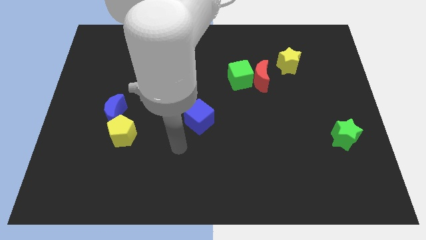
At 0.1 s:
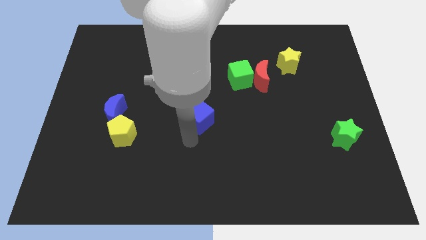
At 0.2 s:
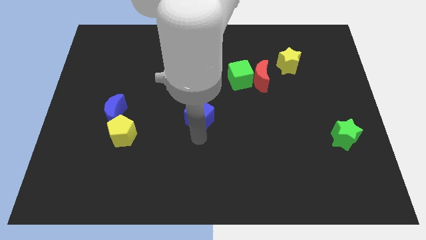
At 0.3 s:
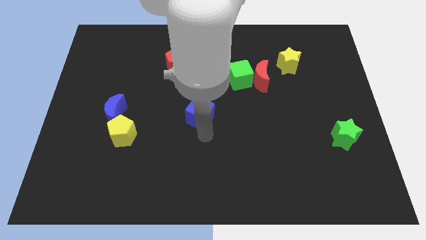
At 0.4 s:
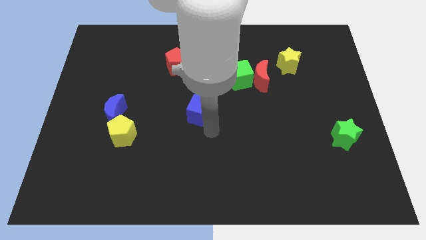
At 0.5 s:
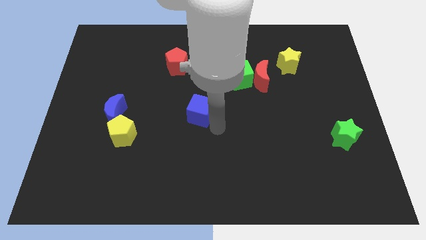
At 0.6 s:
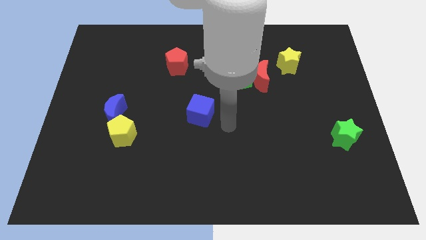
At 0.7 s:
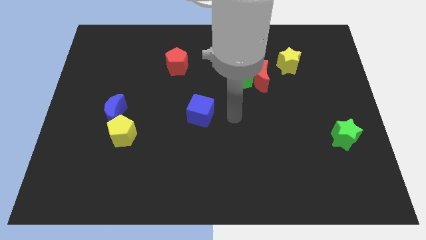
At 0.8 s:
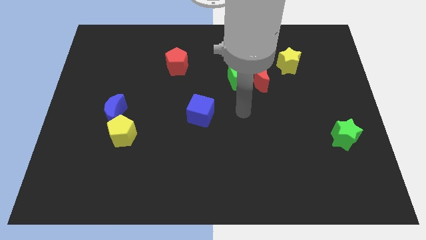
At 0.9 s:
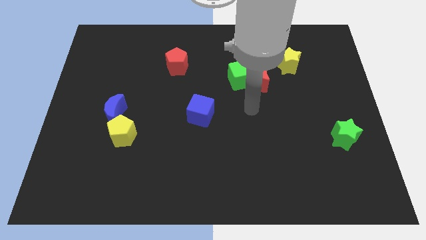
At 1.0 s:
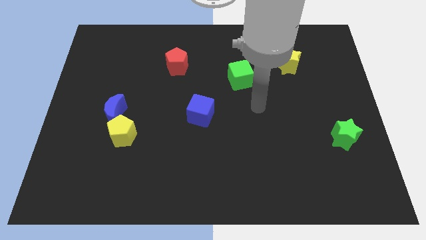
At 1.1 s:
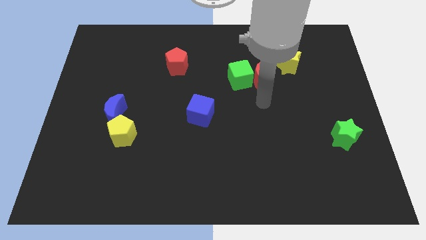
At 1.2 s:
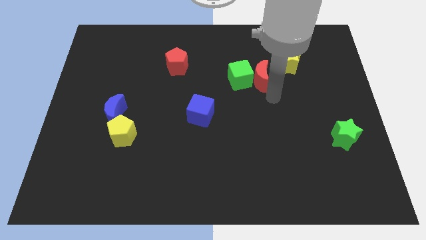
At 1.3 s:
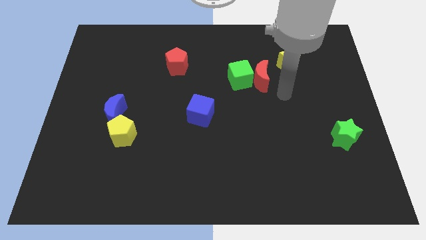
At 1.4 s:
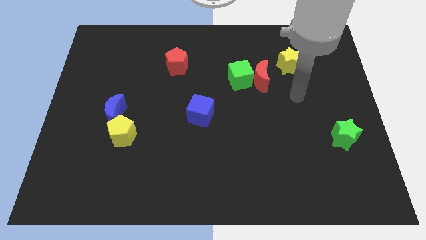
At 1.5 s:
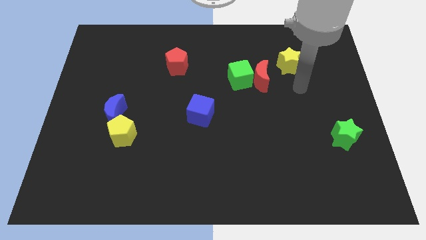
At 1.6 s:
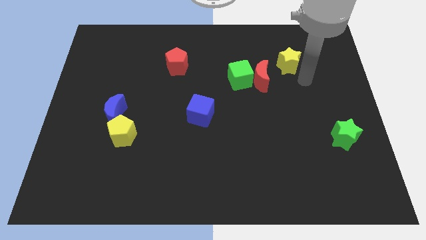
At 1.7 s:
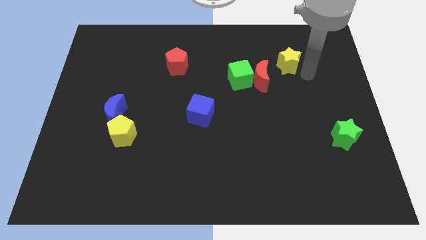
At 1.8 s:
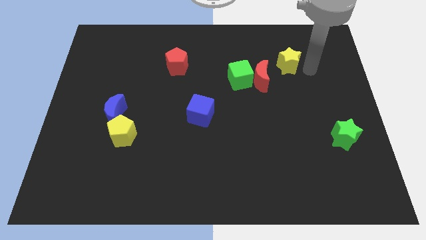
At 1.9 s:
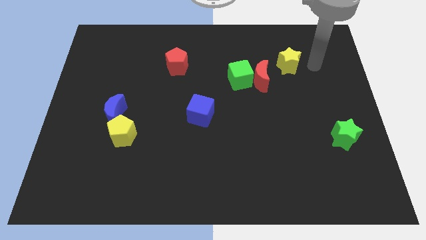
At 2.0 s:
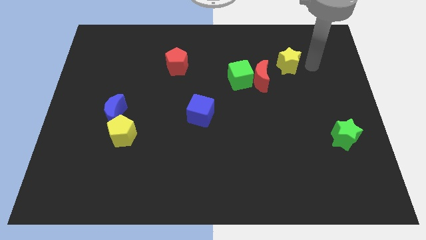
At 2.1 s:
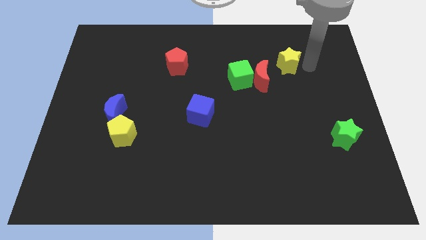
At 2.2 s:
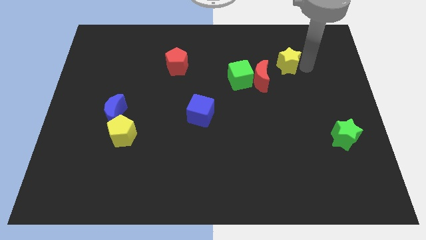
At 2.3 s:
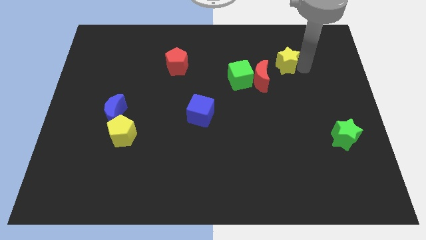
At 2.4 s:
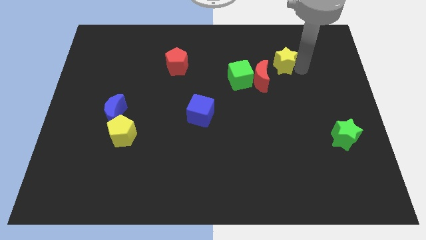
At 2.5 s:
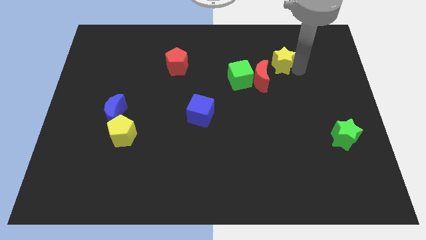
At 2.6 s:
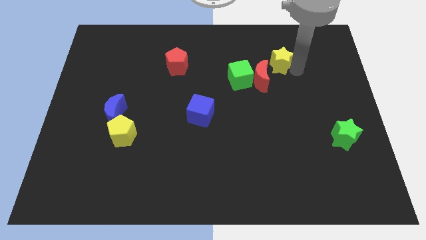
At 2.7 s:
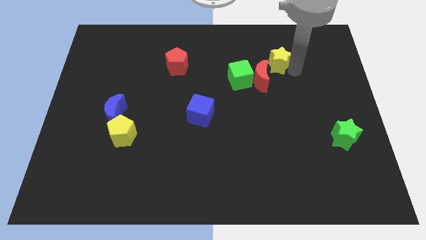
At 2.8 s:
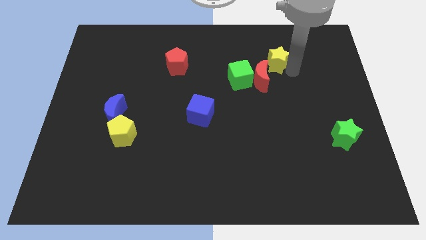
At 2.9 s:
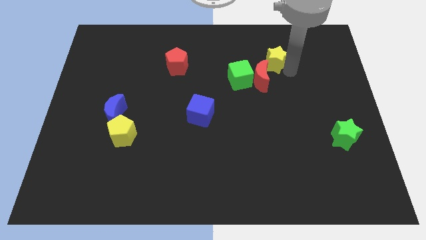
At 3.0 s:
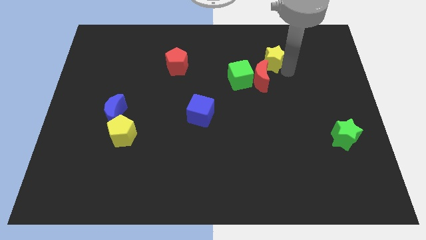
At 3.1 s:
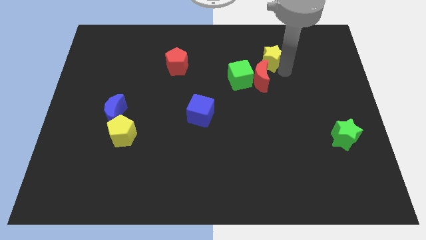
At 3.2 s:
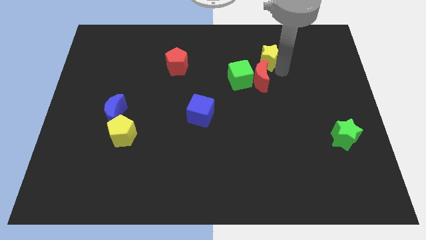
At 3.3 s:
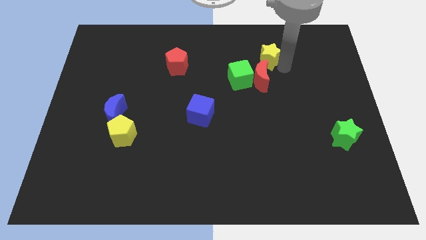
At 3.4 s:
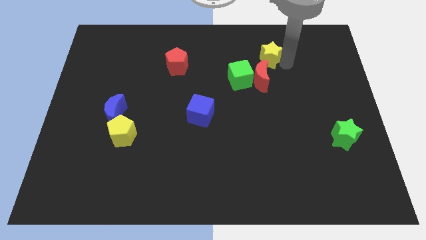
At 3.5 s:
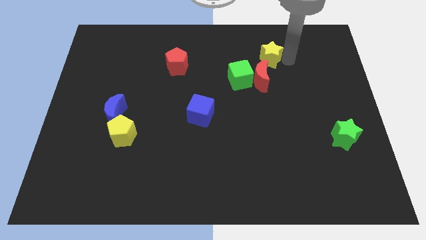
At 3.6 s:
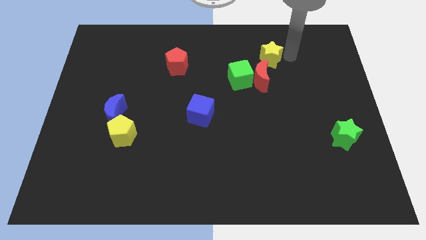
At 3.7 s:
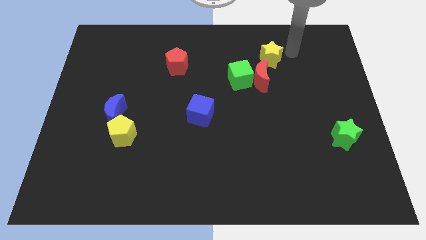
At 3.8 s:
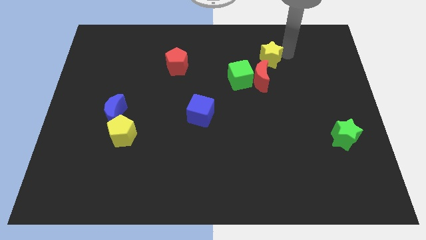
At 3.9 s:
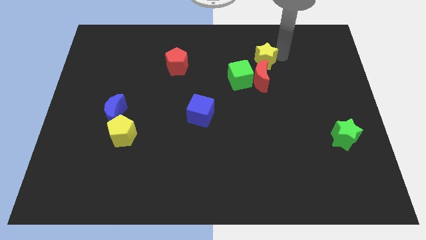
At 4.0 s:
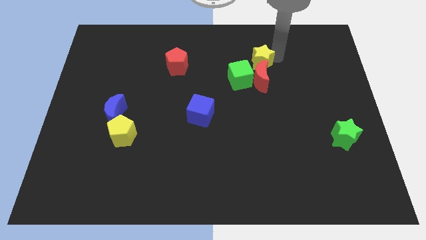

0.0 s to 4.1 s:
slightly move the yellow star left

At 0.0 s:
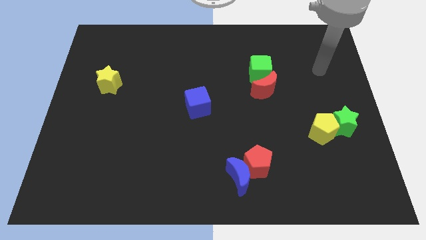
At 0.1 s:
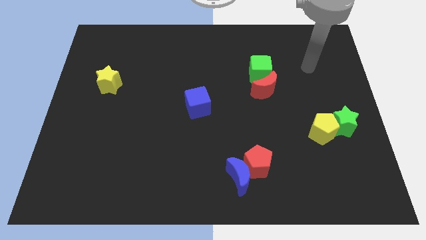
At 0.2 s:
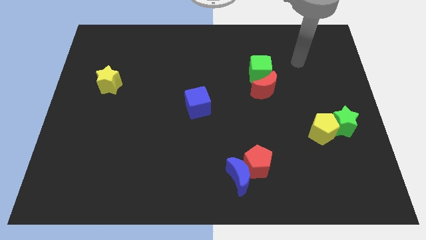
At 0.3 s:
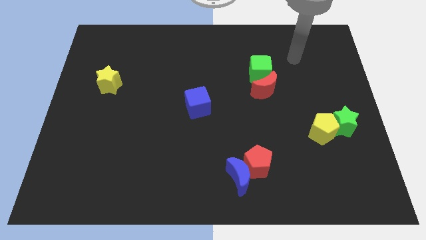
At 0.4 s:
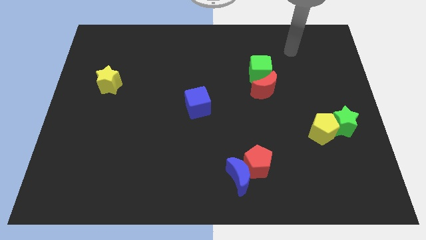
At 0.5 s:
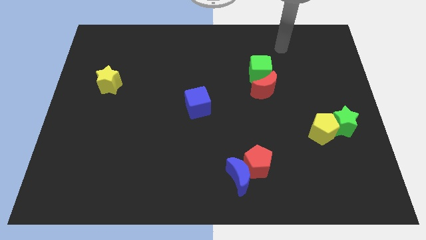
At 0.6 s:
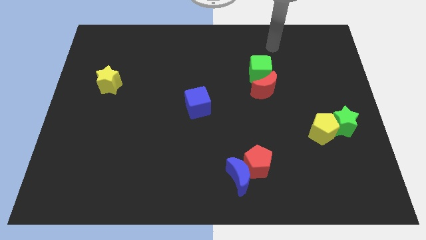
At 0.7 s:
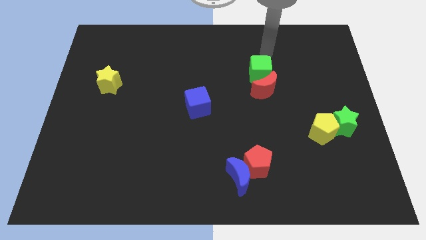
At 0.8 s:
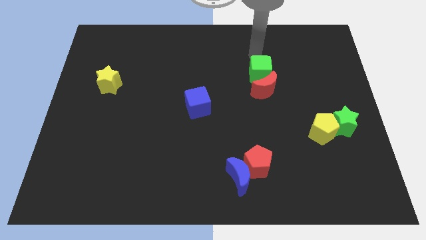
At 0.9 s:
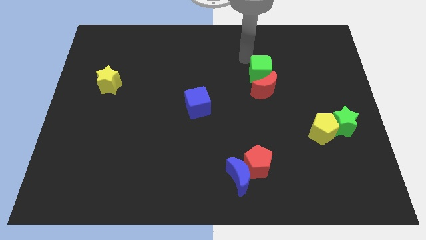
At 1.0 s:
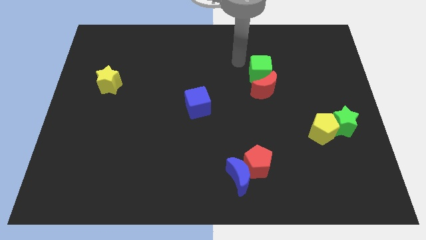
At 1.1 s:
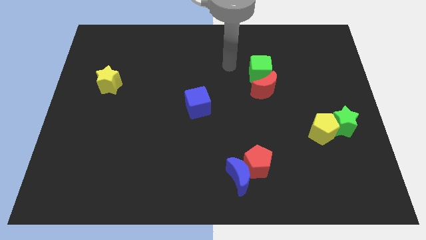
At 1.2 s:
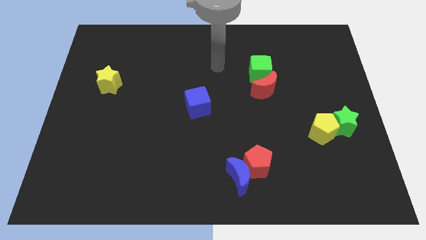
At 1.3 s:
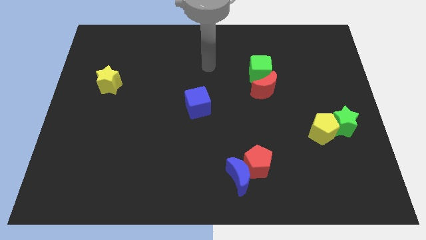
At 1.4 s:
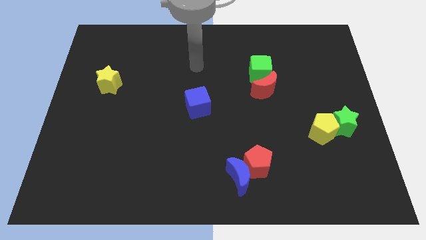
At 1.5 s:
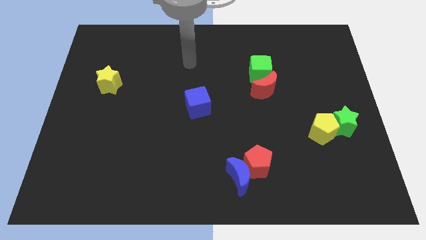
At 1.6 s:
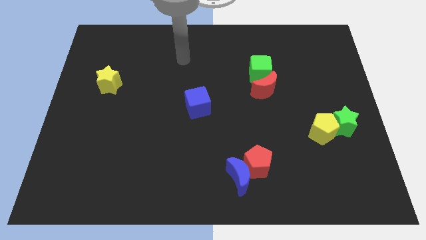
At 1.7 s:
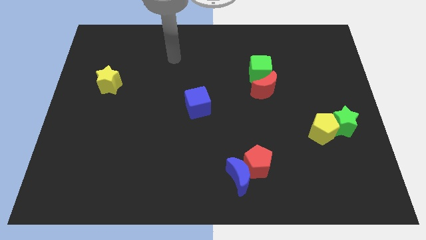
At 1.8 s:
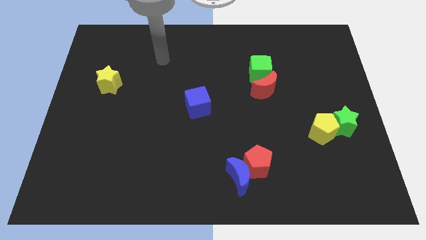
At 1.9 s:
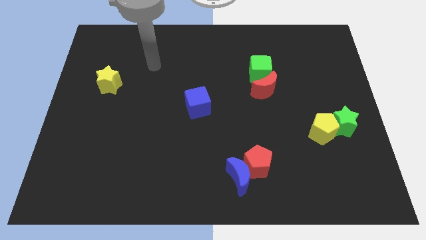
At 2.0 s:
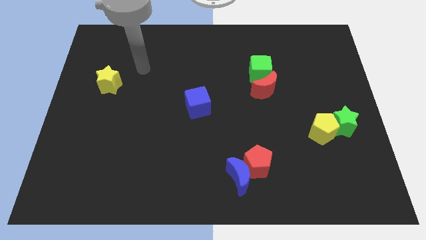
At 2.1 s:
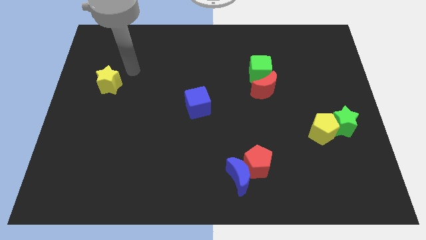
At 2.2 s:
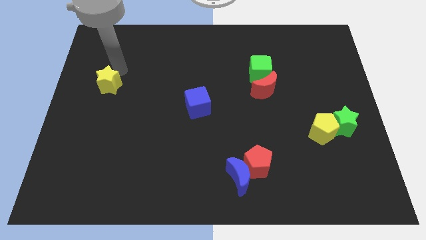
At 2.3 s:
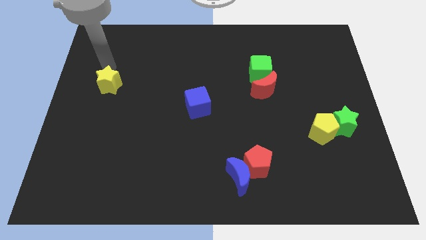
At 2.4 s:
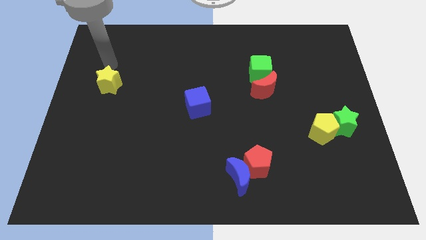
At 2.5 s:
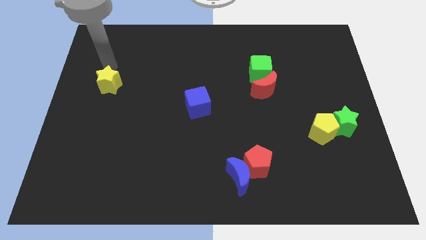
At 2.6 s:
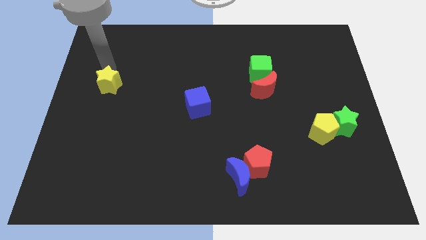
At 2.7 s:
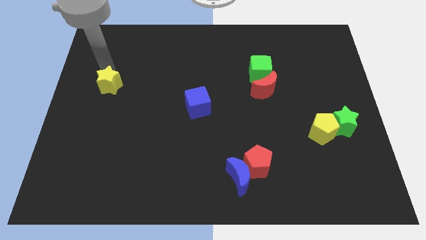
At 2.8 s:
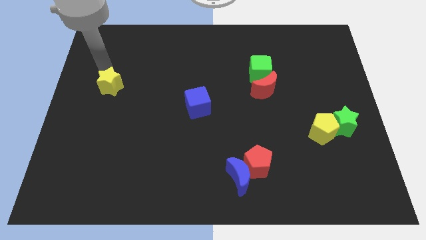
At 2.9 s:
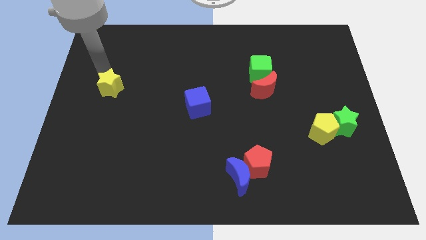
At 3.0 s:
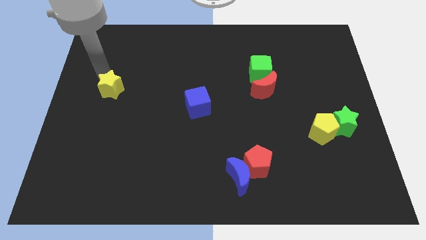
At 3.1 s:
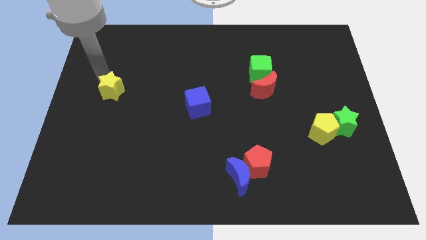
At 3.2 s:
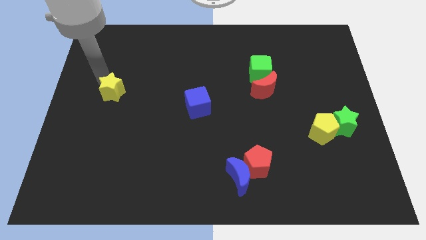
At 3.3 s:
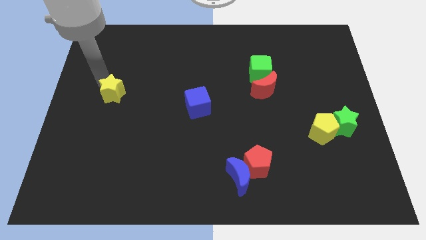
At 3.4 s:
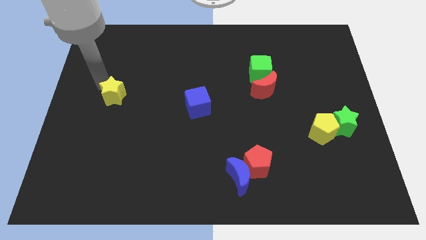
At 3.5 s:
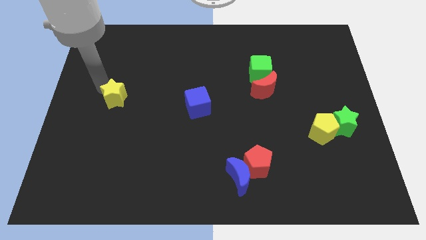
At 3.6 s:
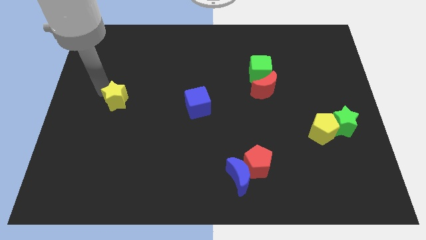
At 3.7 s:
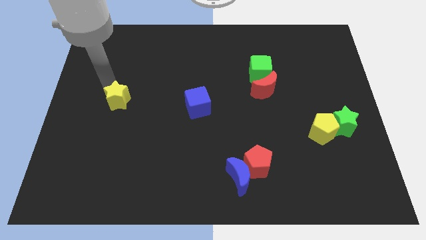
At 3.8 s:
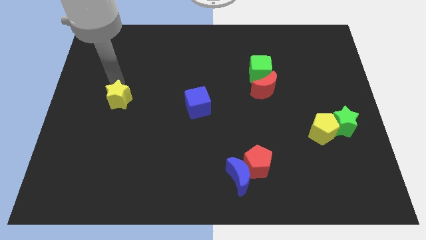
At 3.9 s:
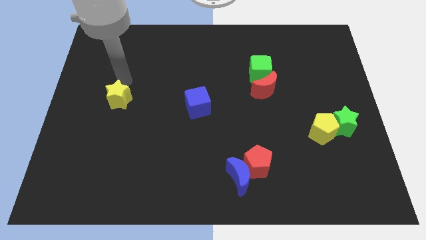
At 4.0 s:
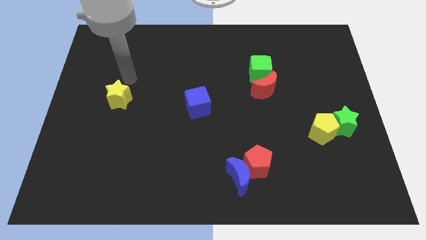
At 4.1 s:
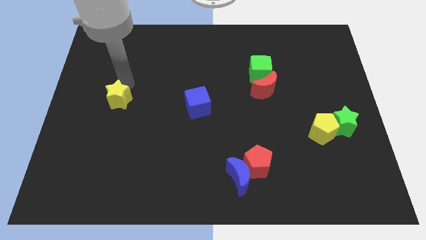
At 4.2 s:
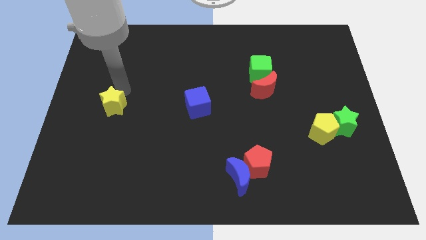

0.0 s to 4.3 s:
push the yellow star somewhat downwards

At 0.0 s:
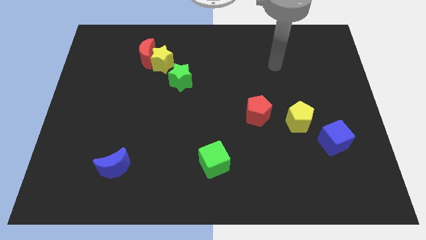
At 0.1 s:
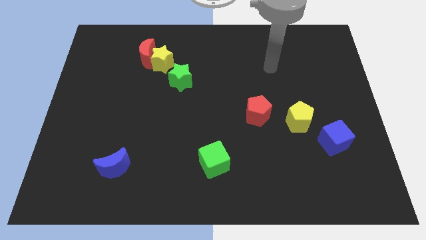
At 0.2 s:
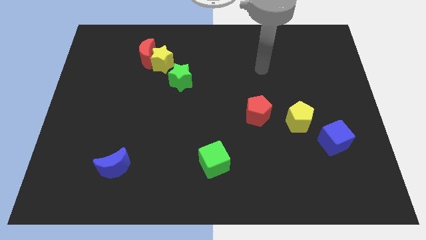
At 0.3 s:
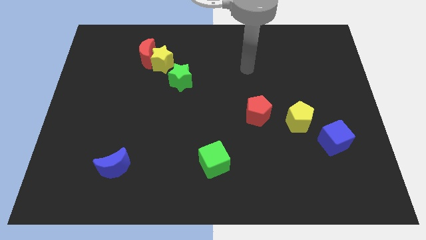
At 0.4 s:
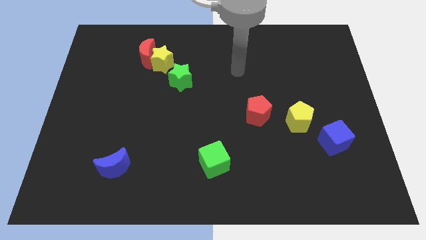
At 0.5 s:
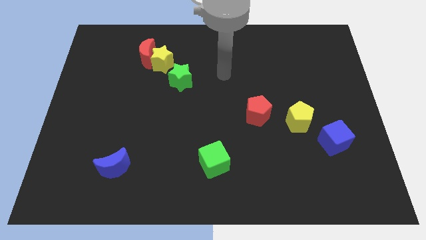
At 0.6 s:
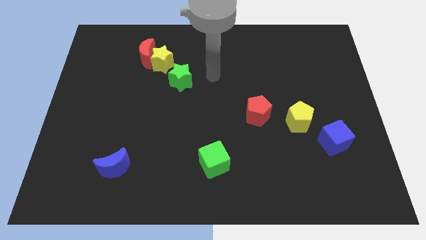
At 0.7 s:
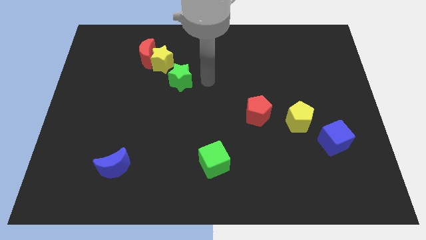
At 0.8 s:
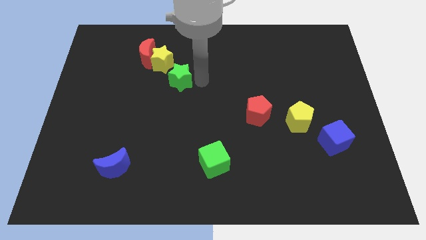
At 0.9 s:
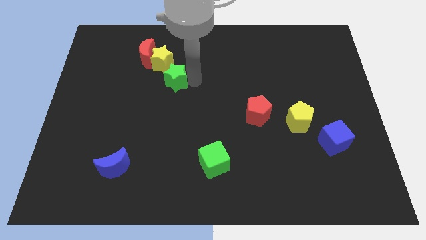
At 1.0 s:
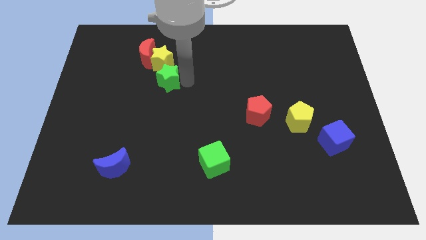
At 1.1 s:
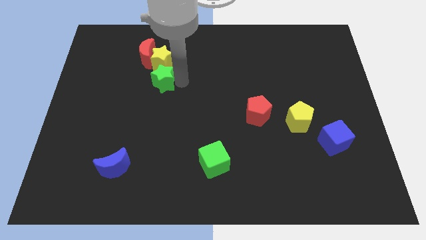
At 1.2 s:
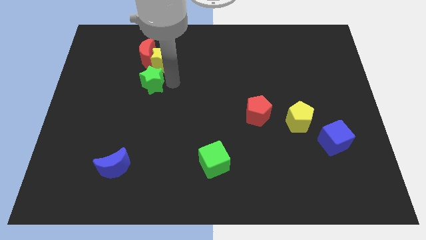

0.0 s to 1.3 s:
move the green star to the left slightly
